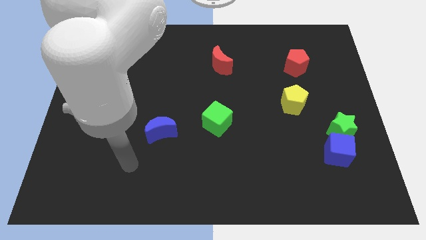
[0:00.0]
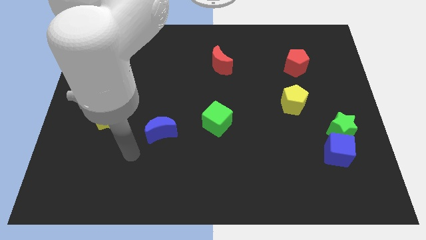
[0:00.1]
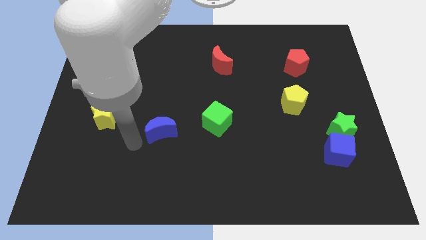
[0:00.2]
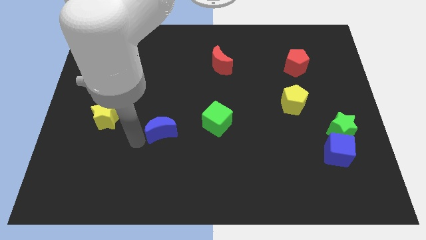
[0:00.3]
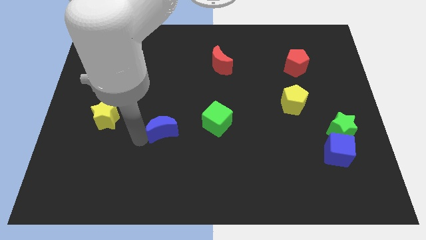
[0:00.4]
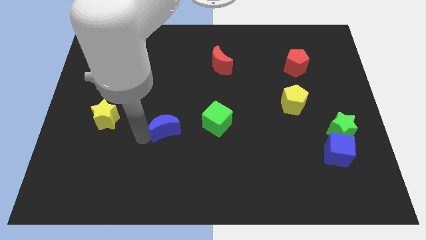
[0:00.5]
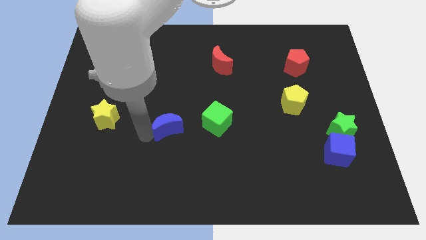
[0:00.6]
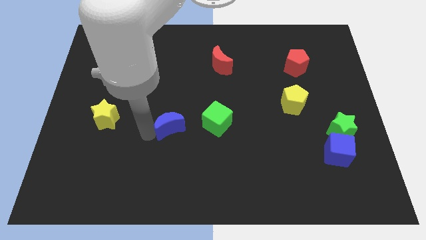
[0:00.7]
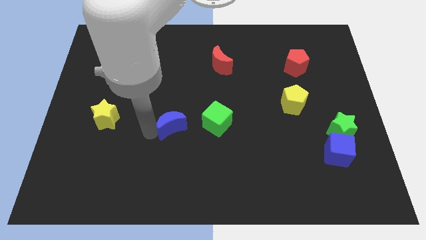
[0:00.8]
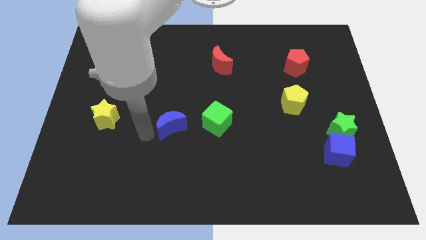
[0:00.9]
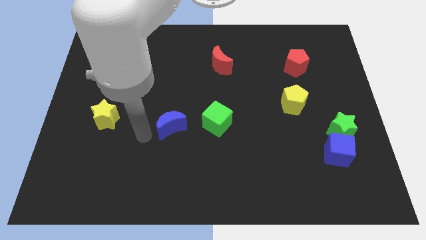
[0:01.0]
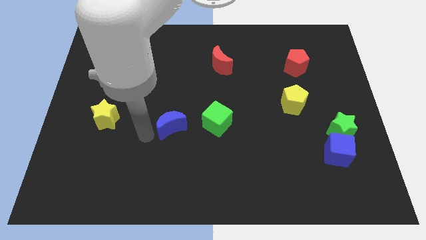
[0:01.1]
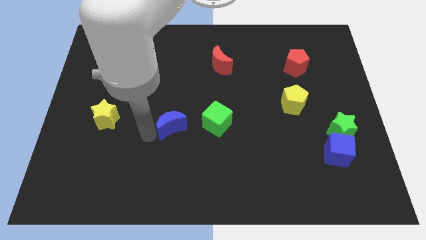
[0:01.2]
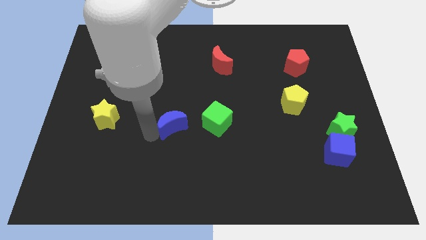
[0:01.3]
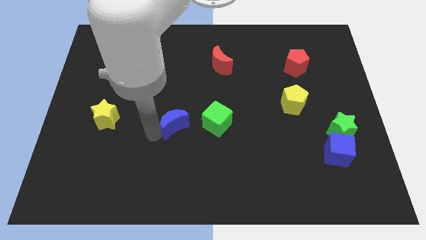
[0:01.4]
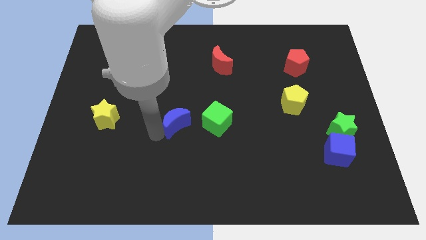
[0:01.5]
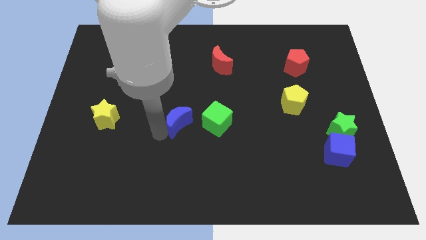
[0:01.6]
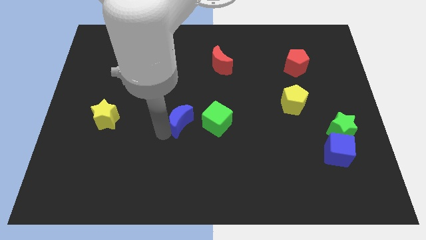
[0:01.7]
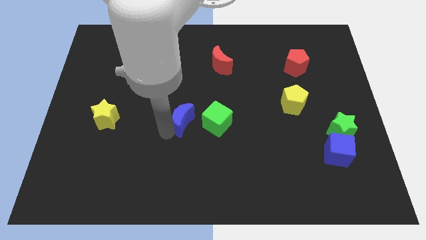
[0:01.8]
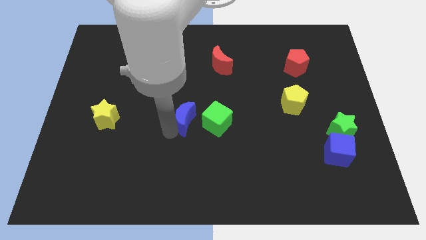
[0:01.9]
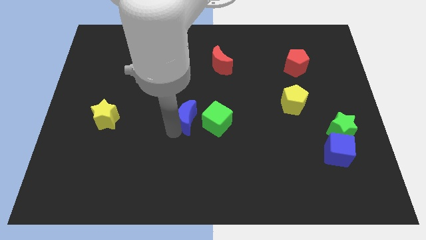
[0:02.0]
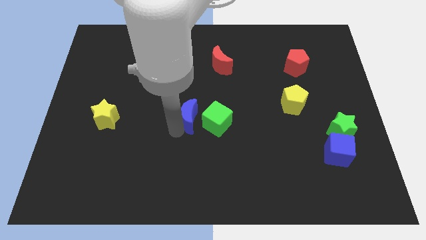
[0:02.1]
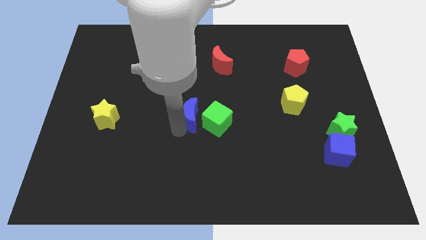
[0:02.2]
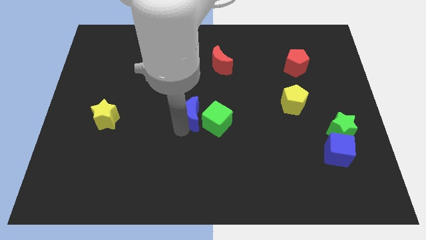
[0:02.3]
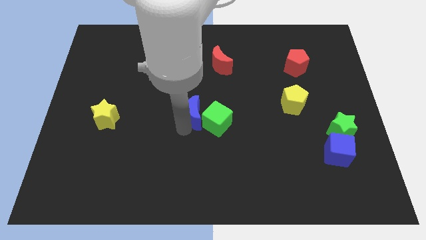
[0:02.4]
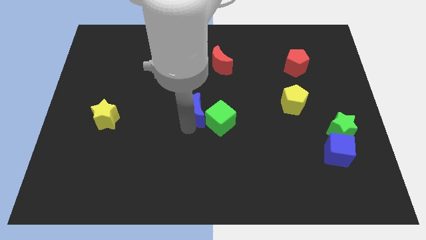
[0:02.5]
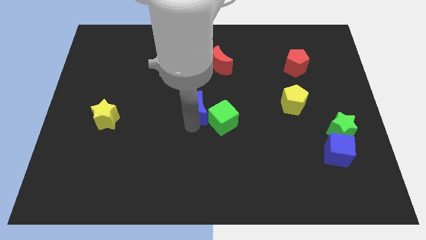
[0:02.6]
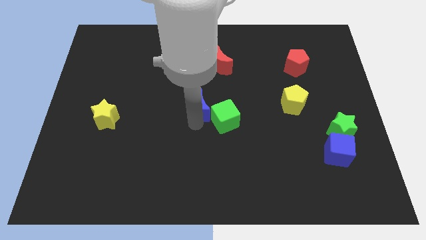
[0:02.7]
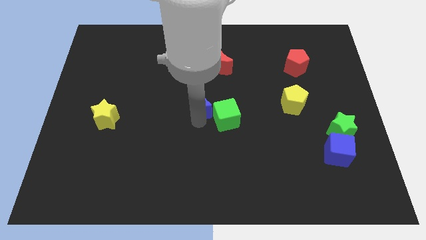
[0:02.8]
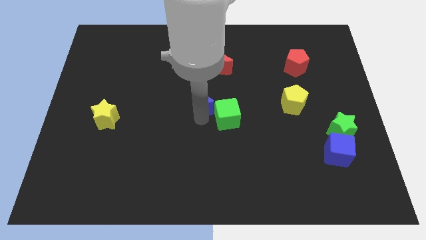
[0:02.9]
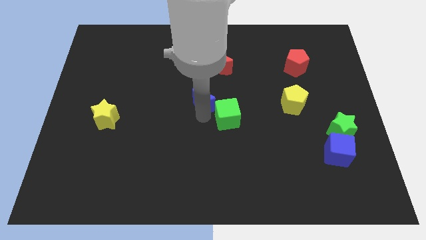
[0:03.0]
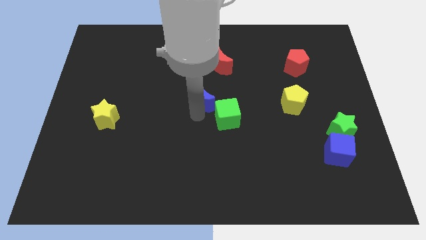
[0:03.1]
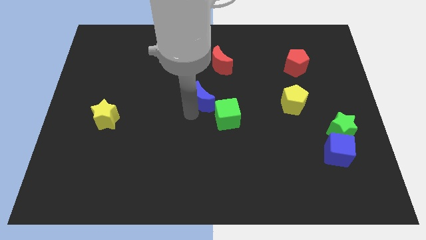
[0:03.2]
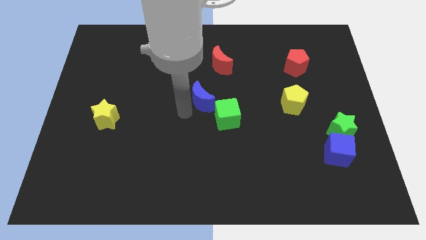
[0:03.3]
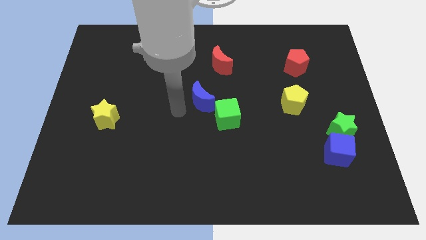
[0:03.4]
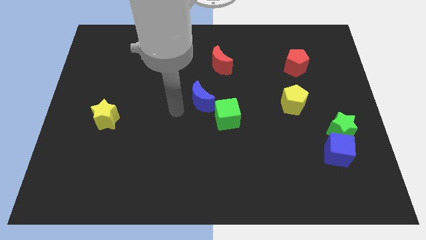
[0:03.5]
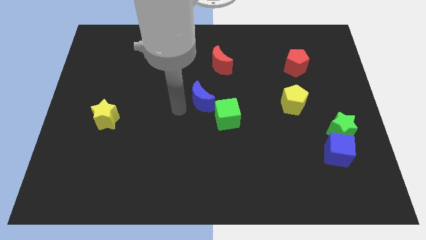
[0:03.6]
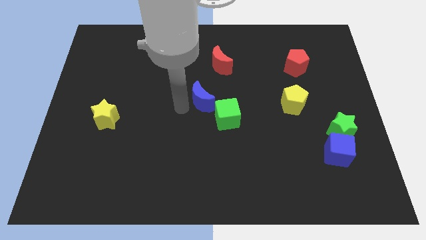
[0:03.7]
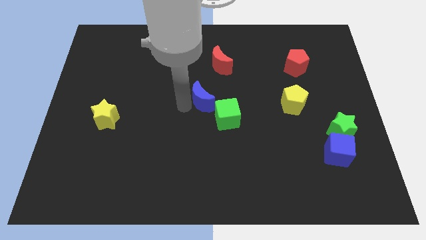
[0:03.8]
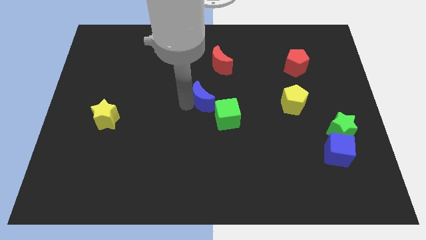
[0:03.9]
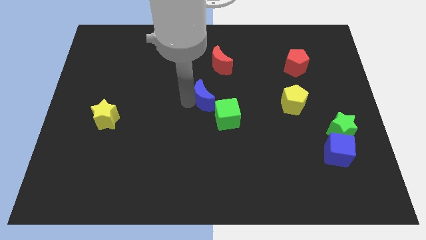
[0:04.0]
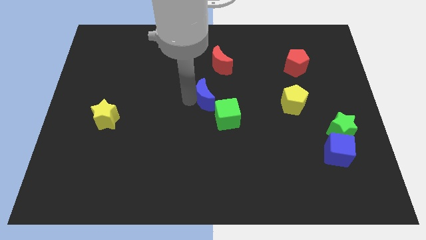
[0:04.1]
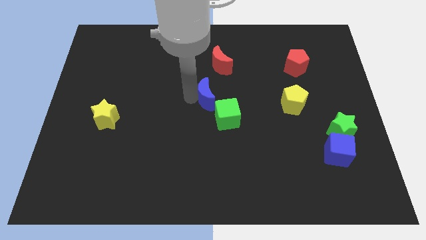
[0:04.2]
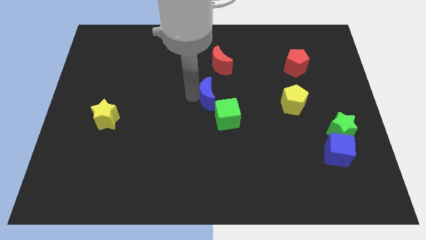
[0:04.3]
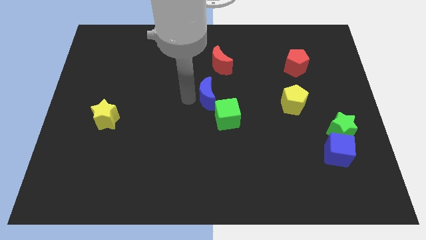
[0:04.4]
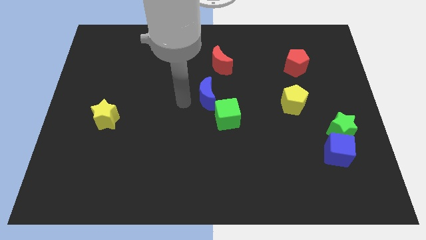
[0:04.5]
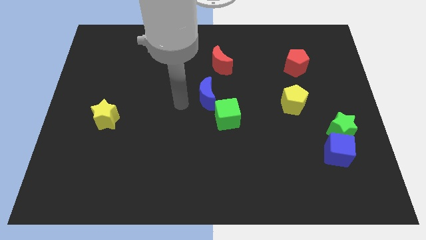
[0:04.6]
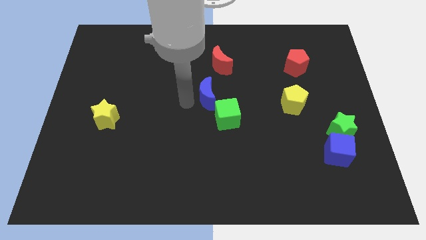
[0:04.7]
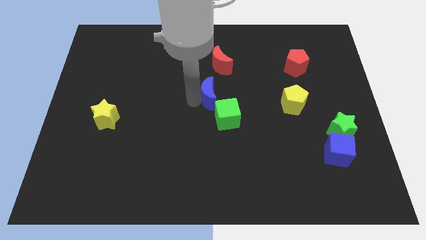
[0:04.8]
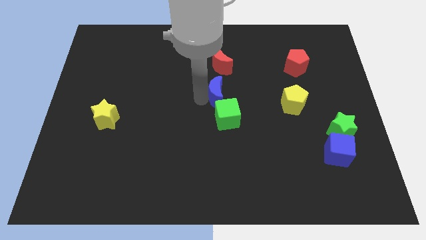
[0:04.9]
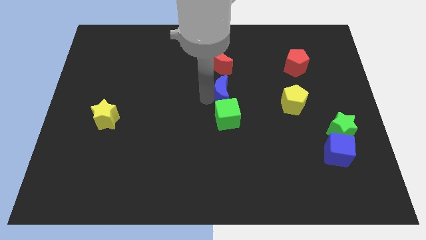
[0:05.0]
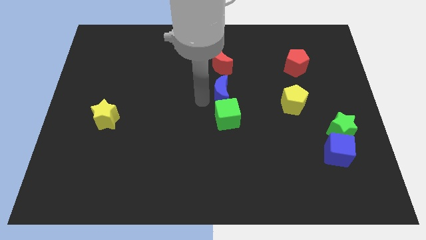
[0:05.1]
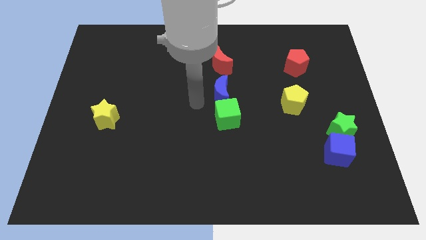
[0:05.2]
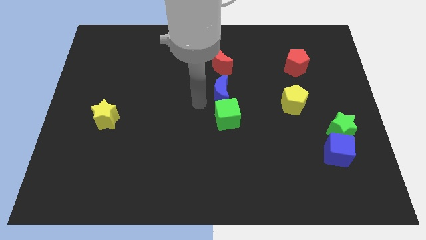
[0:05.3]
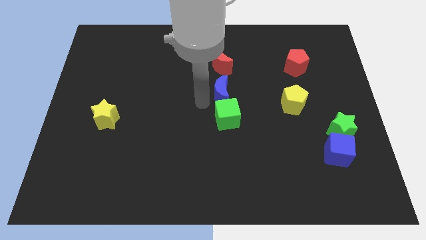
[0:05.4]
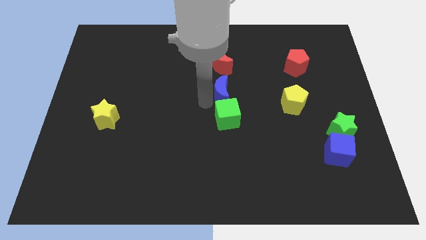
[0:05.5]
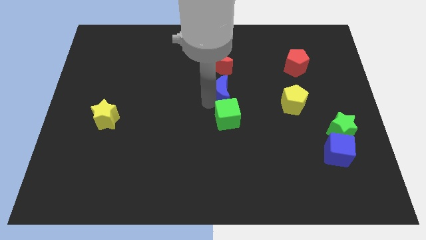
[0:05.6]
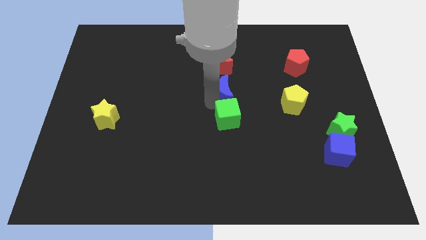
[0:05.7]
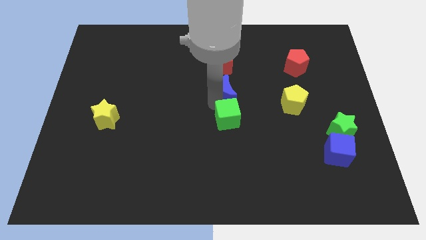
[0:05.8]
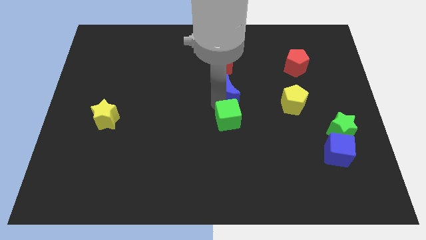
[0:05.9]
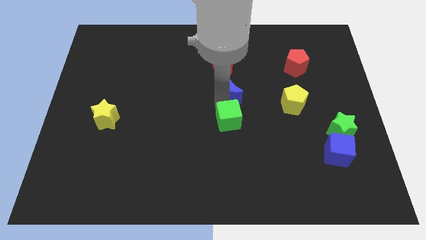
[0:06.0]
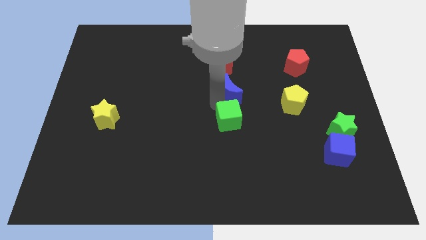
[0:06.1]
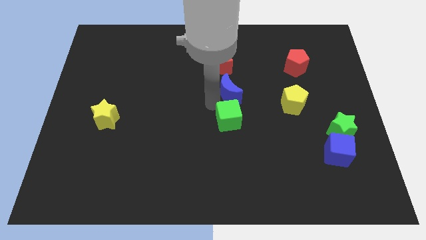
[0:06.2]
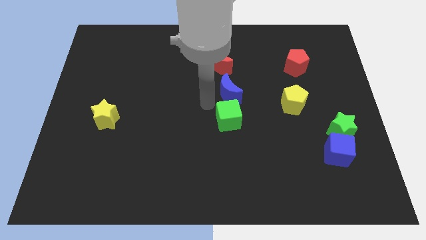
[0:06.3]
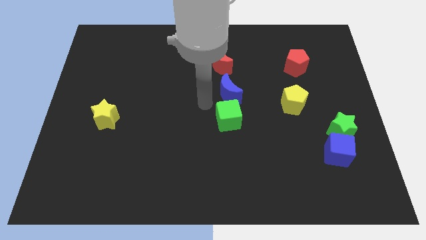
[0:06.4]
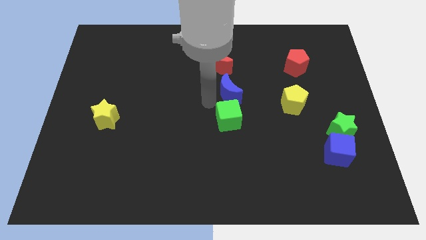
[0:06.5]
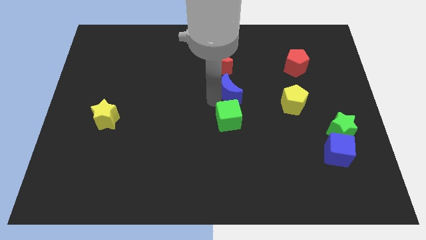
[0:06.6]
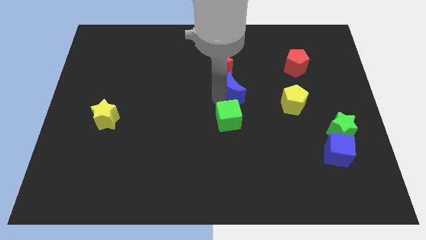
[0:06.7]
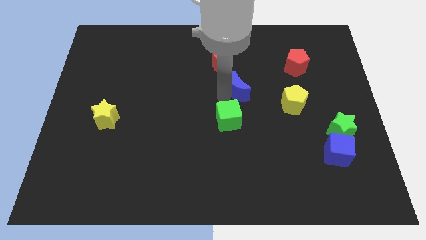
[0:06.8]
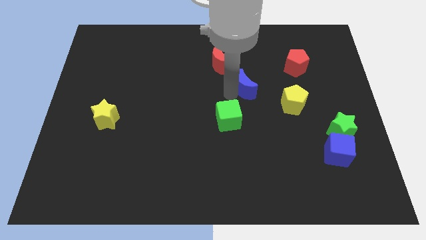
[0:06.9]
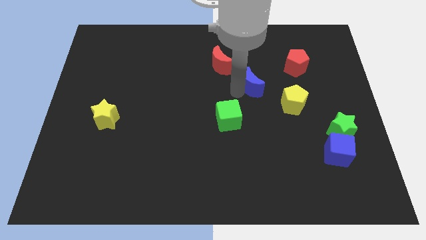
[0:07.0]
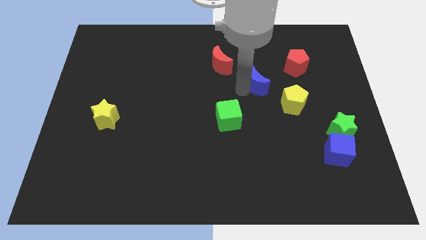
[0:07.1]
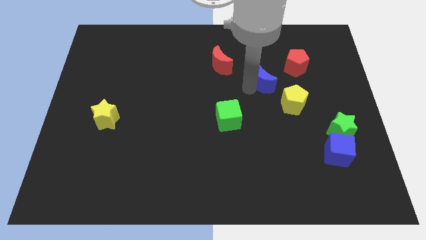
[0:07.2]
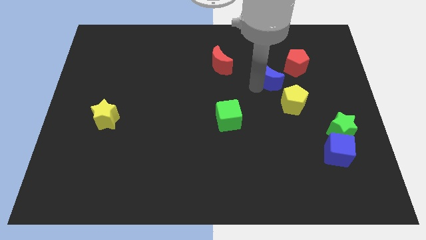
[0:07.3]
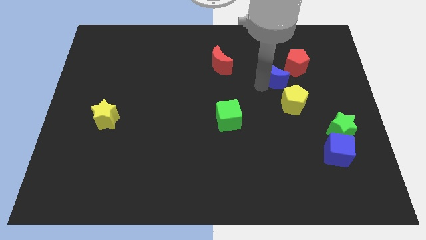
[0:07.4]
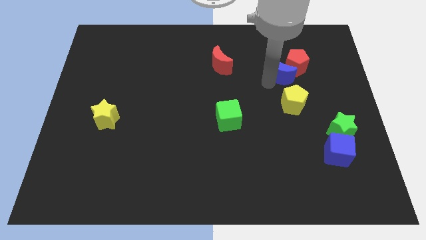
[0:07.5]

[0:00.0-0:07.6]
slide the blue moon towards the red pentagon
